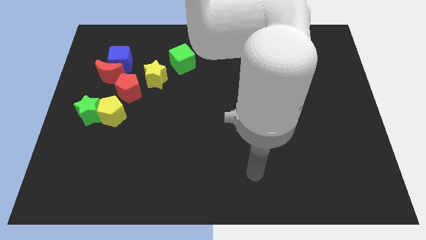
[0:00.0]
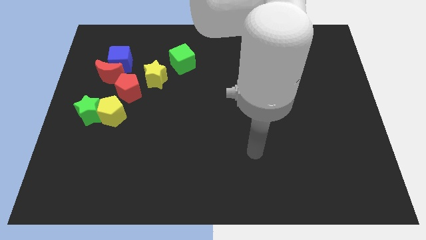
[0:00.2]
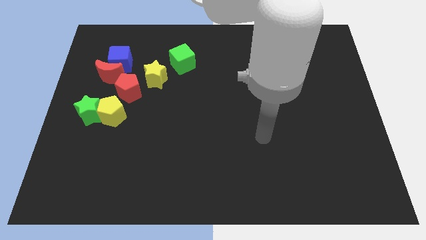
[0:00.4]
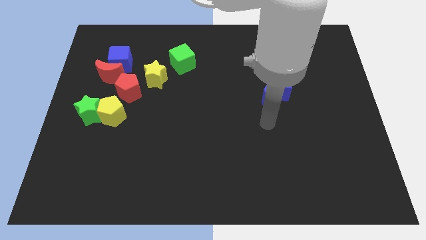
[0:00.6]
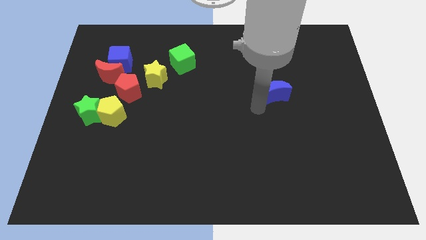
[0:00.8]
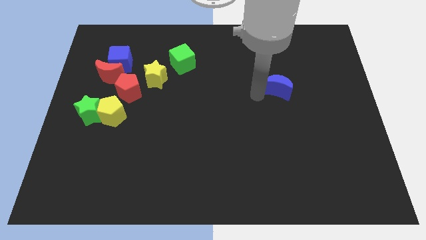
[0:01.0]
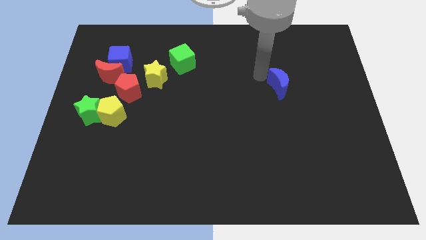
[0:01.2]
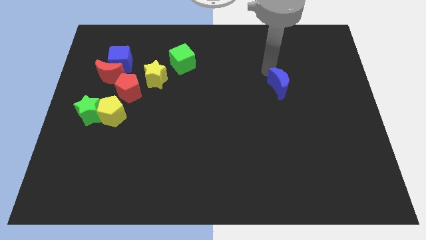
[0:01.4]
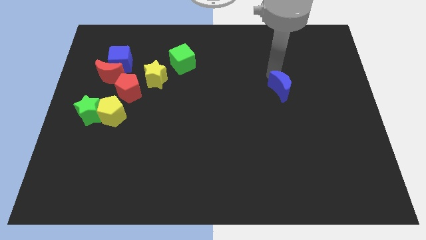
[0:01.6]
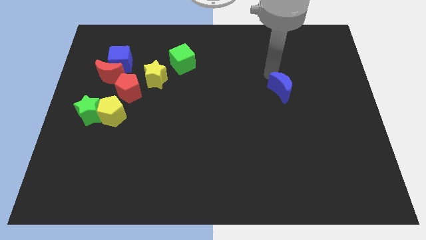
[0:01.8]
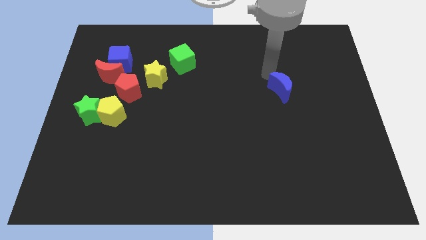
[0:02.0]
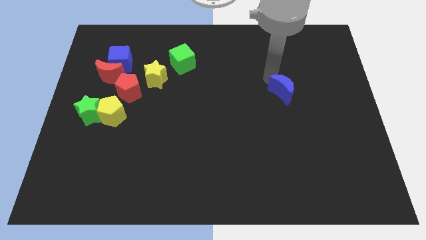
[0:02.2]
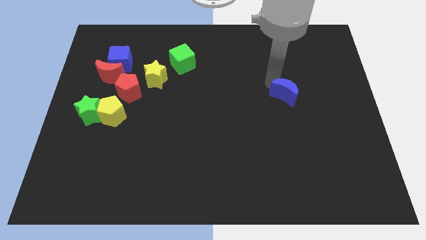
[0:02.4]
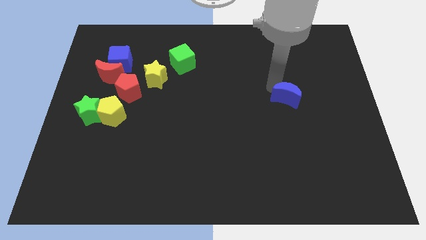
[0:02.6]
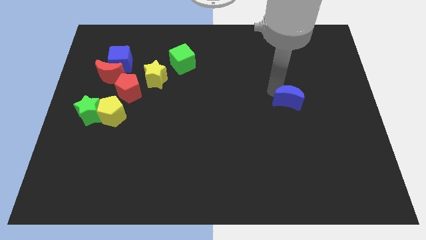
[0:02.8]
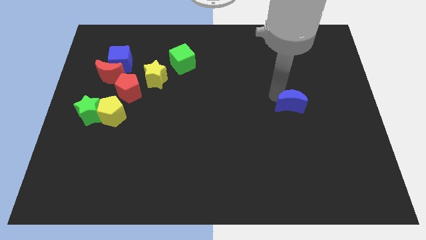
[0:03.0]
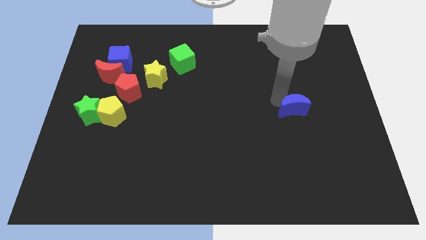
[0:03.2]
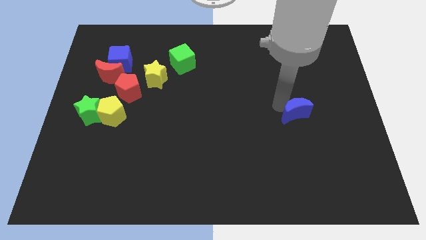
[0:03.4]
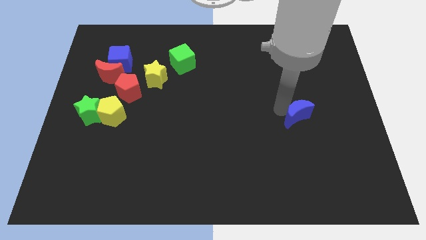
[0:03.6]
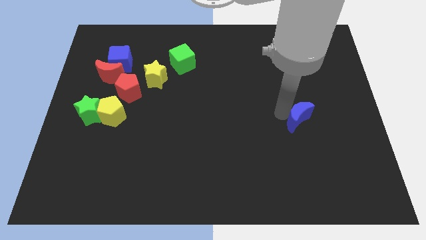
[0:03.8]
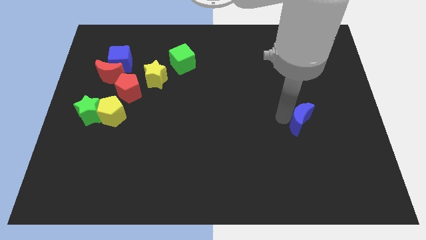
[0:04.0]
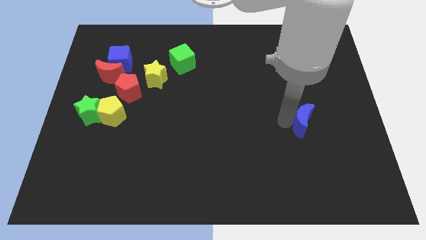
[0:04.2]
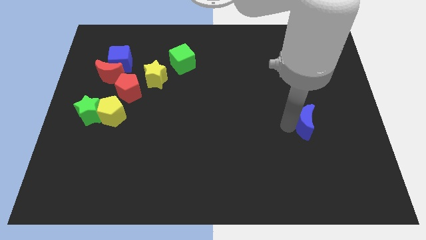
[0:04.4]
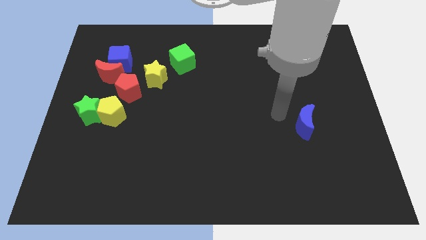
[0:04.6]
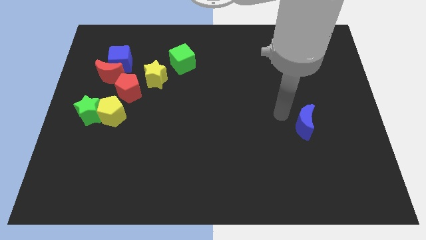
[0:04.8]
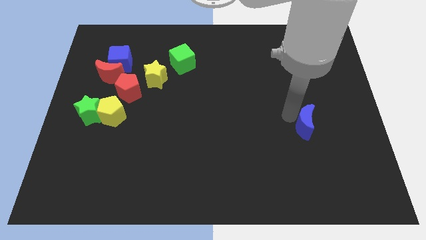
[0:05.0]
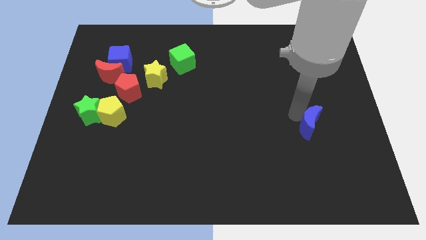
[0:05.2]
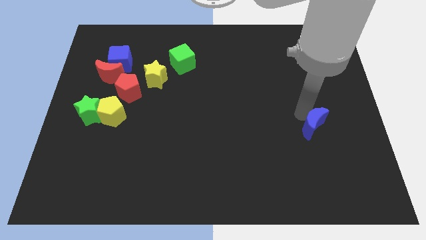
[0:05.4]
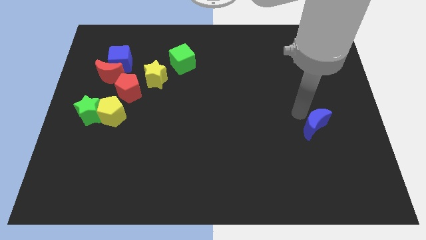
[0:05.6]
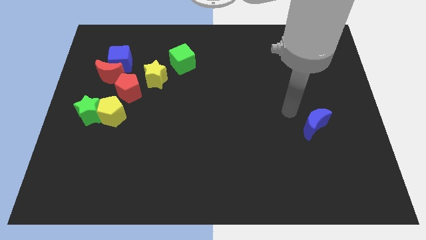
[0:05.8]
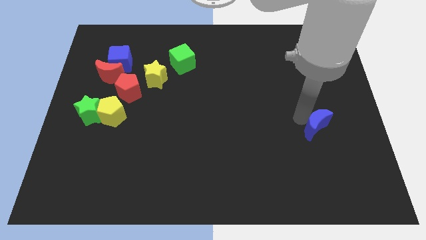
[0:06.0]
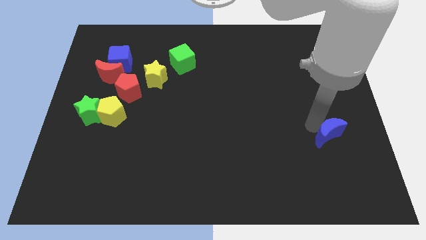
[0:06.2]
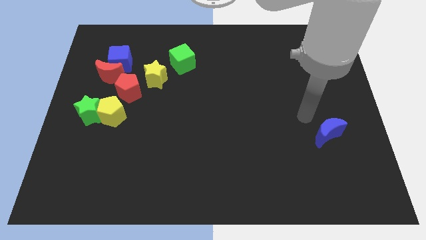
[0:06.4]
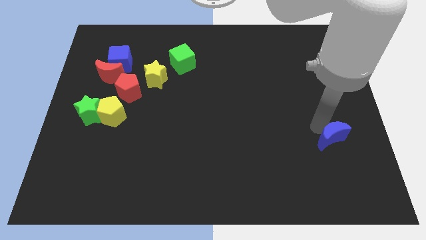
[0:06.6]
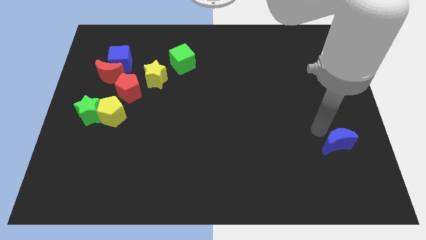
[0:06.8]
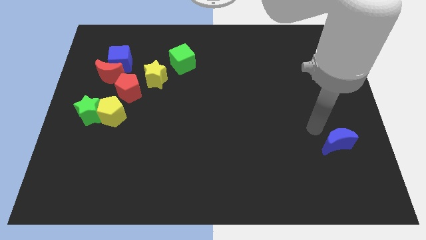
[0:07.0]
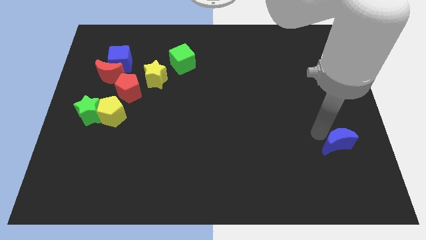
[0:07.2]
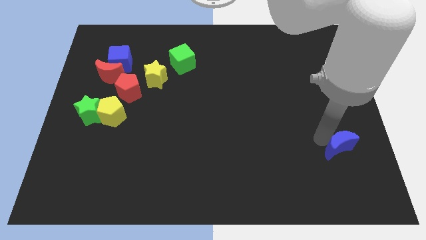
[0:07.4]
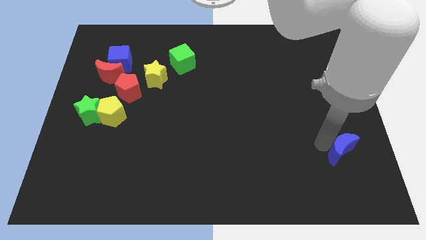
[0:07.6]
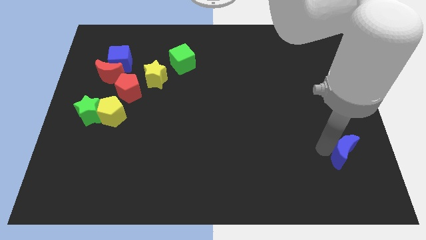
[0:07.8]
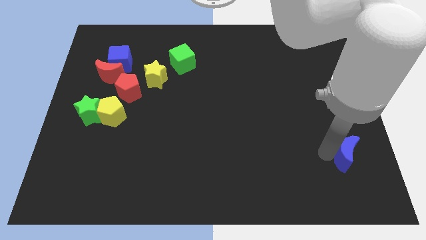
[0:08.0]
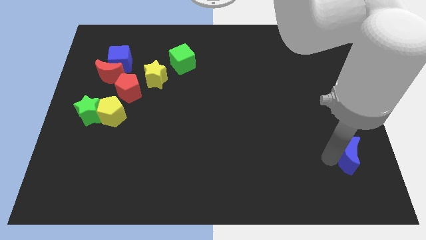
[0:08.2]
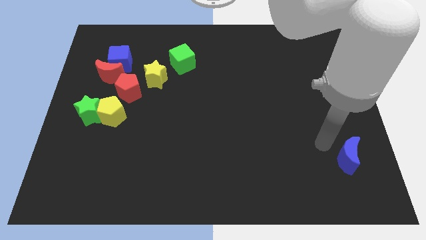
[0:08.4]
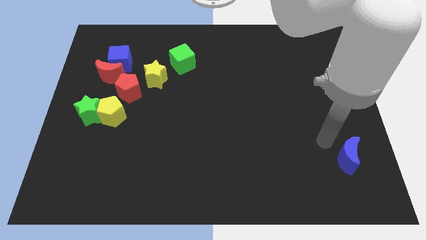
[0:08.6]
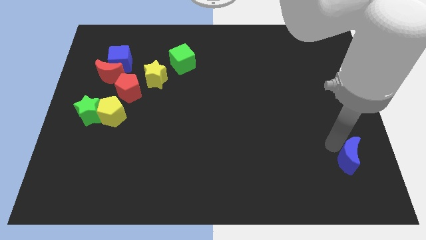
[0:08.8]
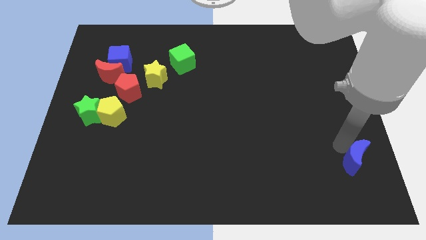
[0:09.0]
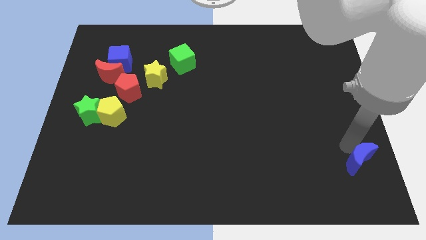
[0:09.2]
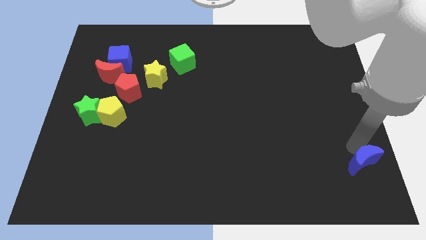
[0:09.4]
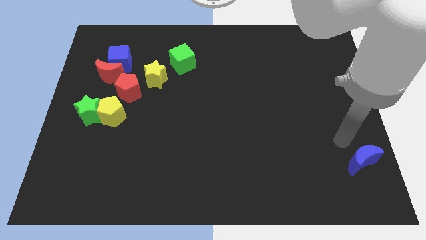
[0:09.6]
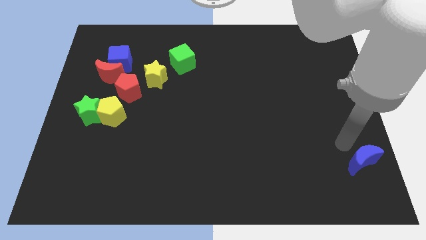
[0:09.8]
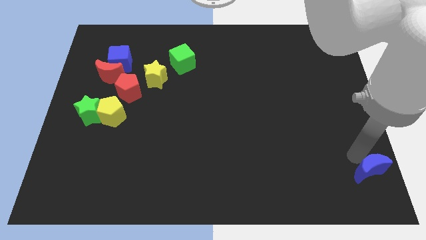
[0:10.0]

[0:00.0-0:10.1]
push the blue moon to the lower right corner

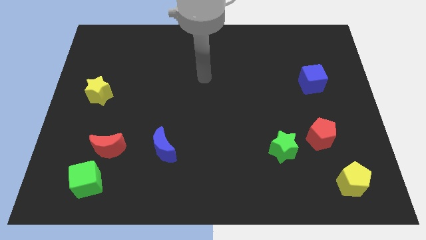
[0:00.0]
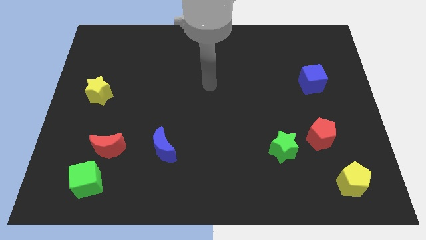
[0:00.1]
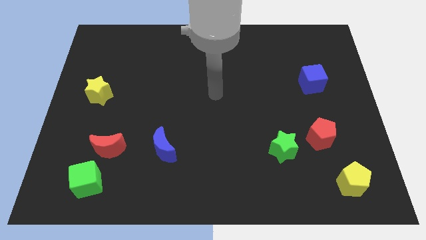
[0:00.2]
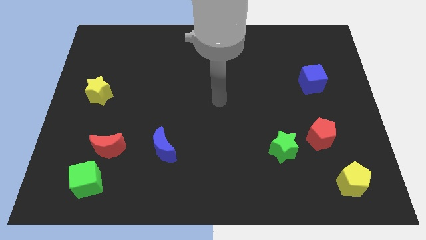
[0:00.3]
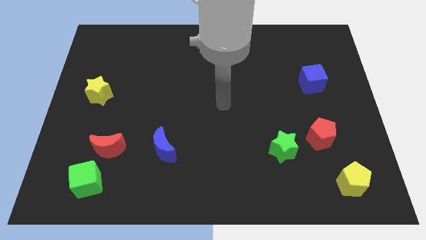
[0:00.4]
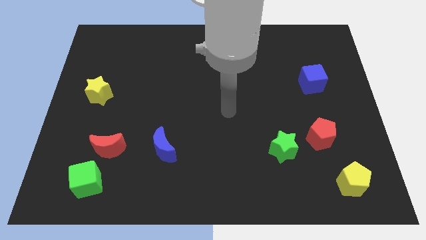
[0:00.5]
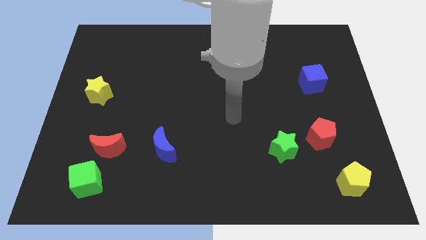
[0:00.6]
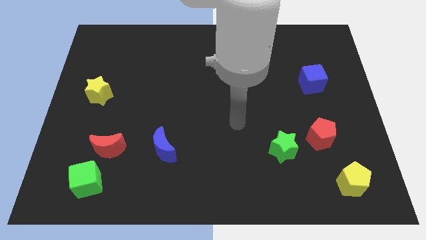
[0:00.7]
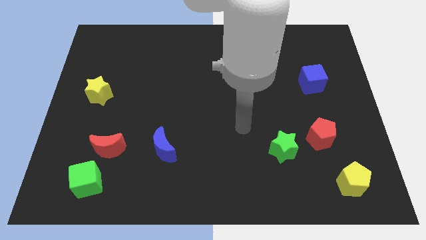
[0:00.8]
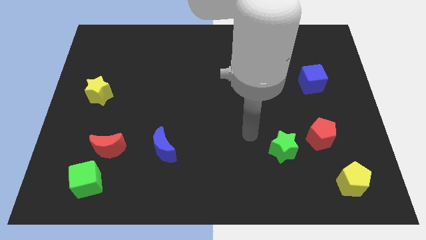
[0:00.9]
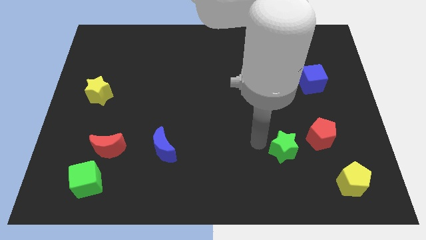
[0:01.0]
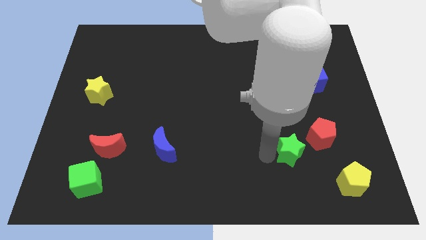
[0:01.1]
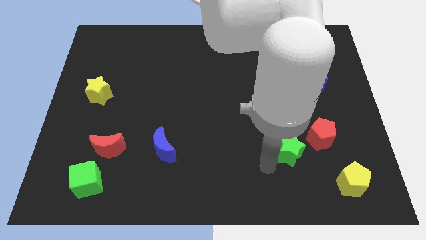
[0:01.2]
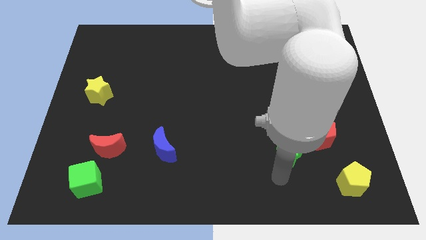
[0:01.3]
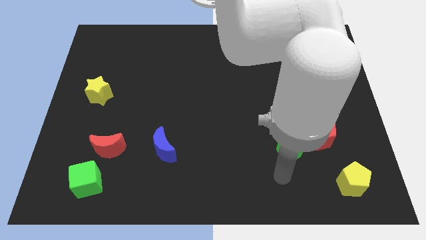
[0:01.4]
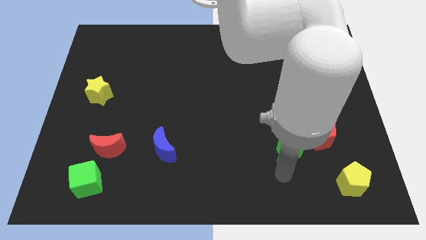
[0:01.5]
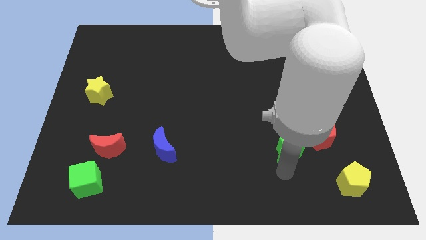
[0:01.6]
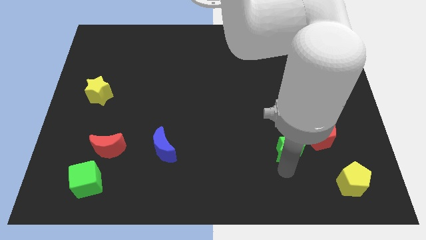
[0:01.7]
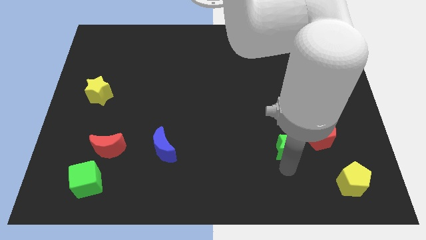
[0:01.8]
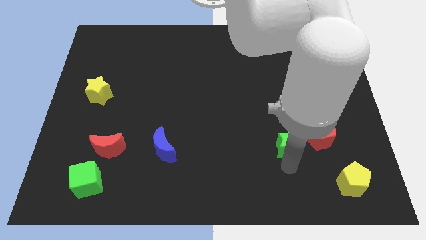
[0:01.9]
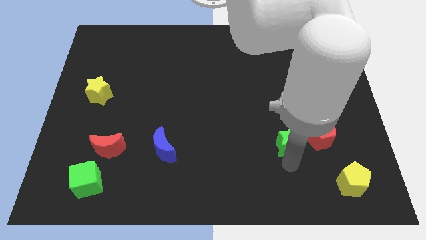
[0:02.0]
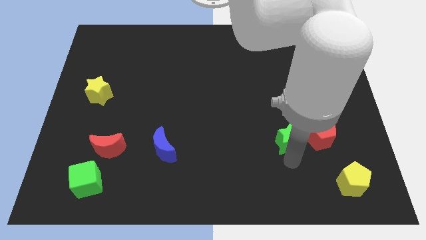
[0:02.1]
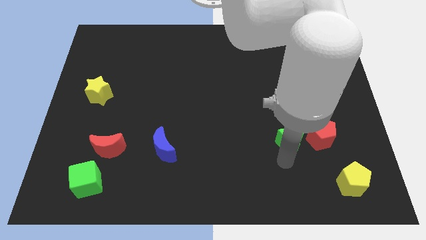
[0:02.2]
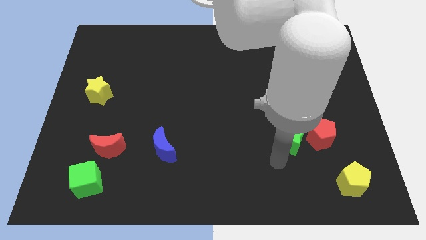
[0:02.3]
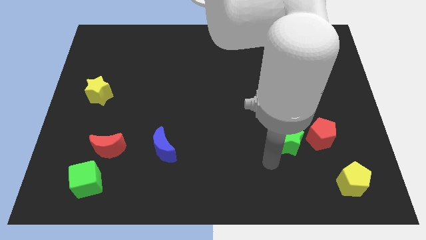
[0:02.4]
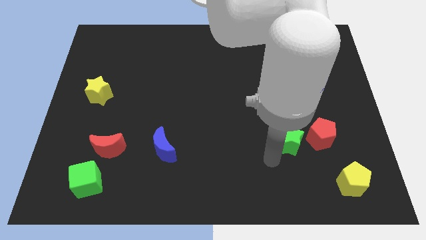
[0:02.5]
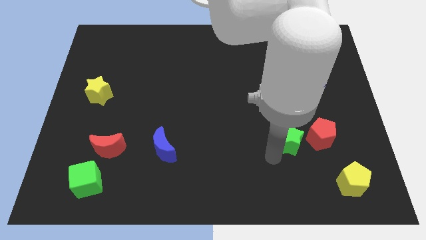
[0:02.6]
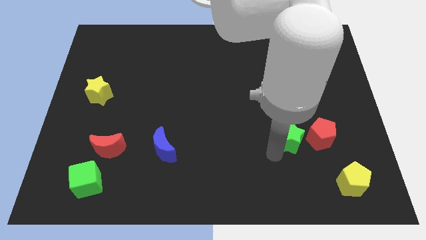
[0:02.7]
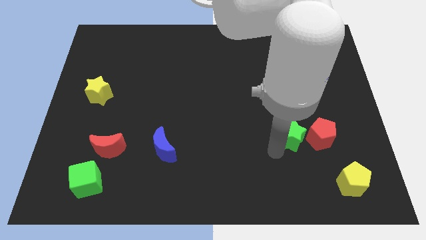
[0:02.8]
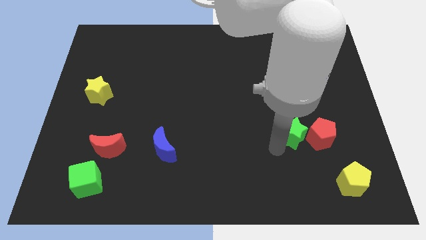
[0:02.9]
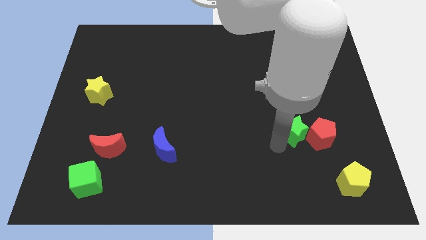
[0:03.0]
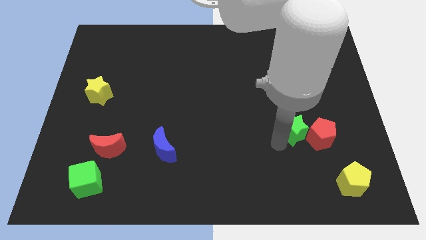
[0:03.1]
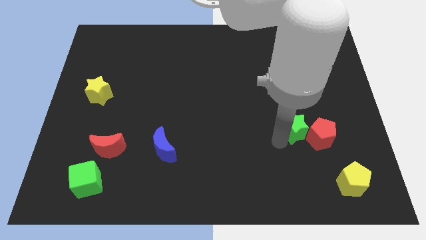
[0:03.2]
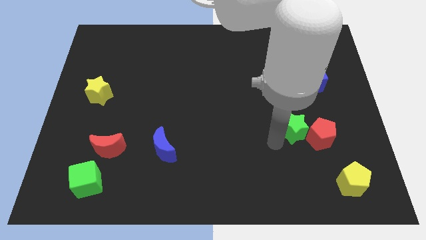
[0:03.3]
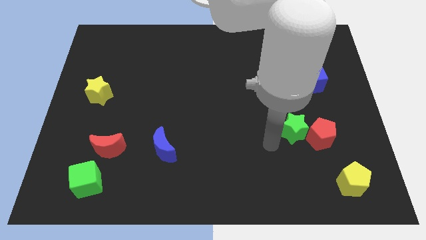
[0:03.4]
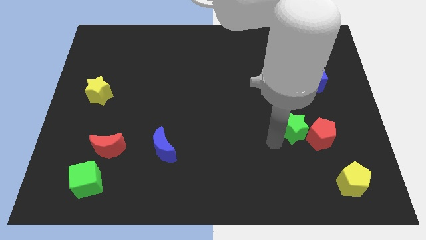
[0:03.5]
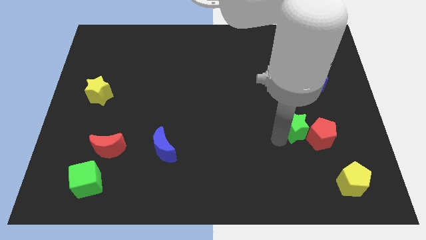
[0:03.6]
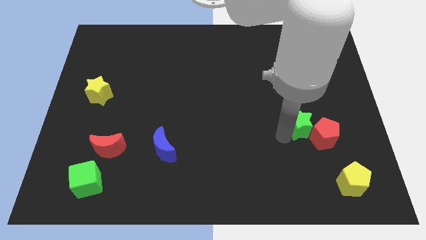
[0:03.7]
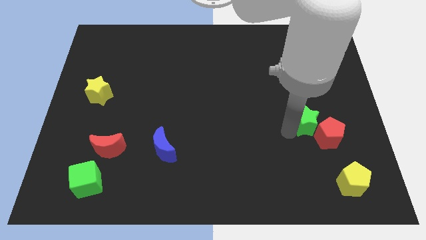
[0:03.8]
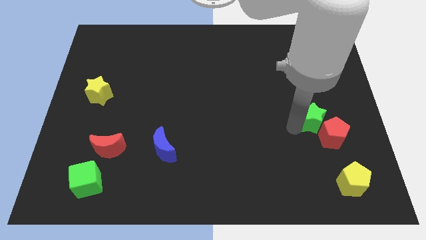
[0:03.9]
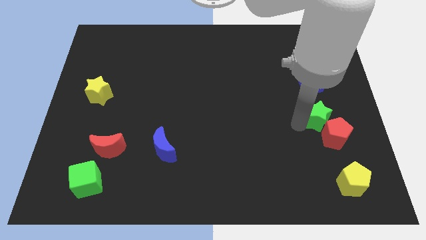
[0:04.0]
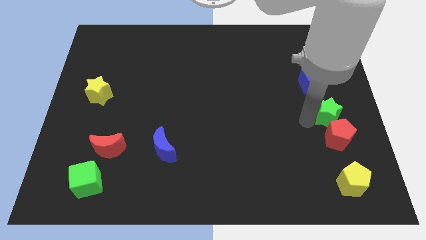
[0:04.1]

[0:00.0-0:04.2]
push the green star to the center right
